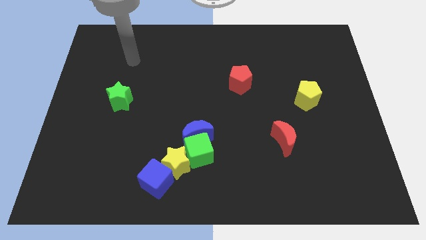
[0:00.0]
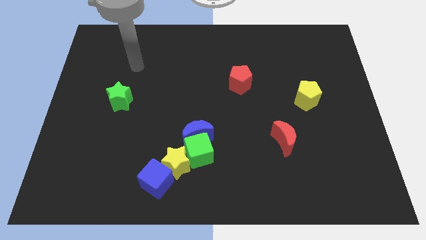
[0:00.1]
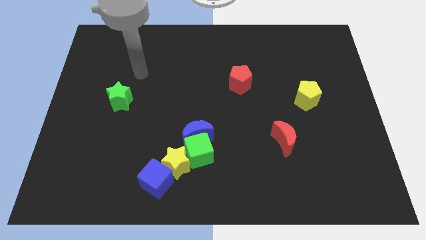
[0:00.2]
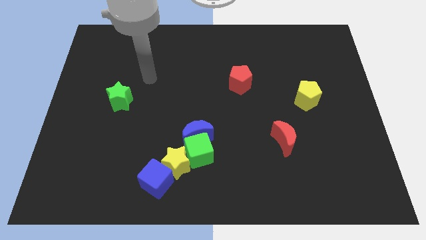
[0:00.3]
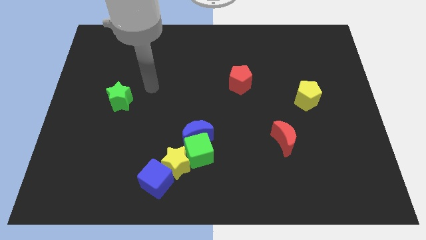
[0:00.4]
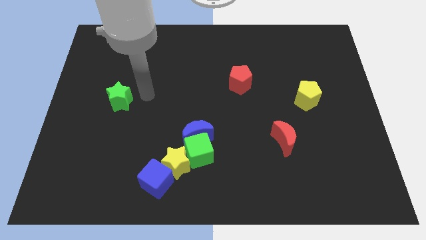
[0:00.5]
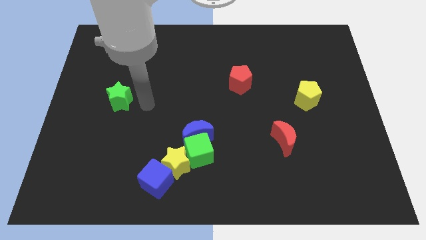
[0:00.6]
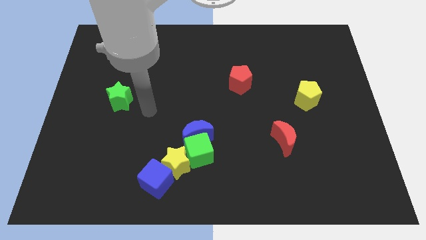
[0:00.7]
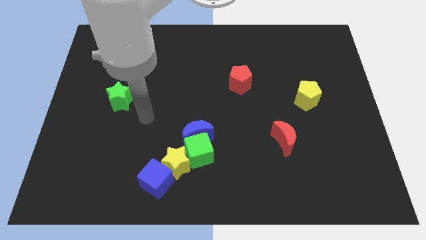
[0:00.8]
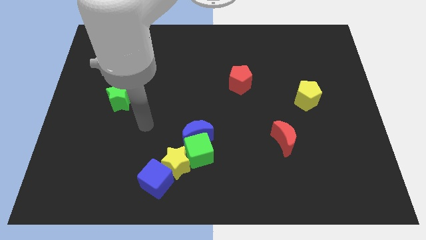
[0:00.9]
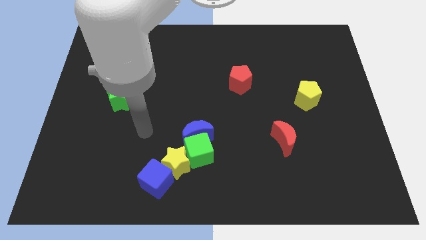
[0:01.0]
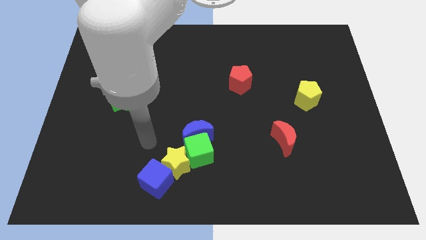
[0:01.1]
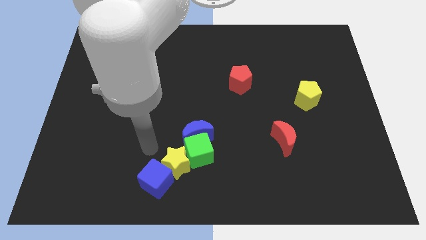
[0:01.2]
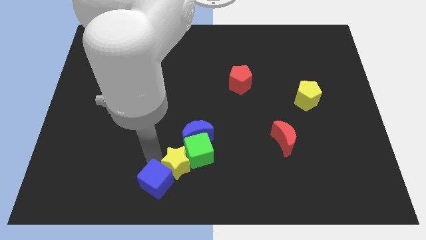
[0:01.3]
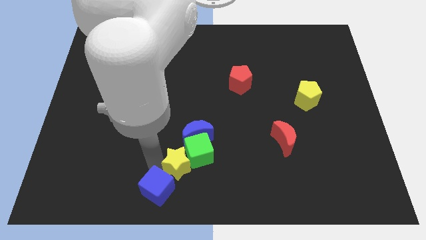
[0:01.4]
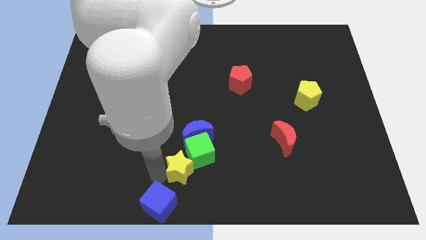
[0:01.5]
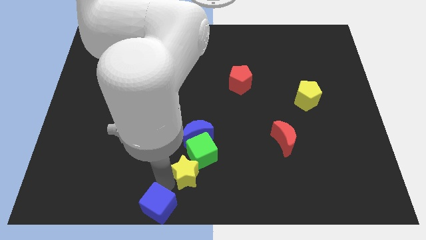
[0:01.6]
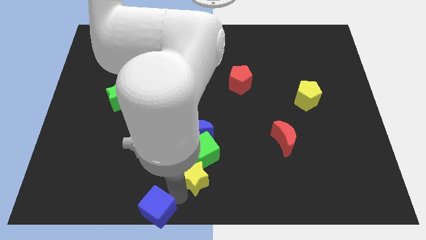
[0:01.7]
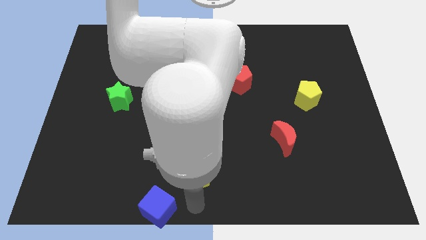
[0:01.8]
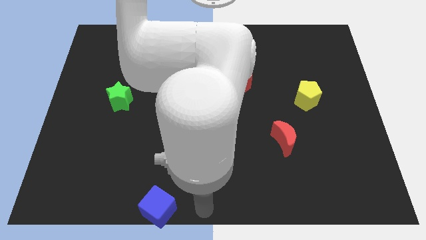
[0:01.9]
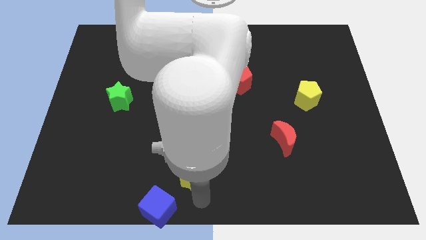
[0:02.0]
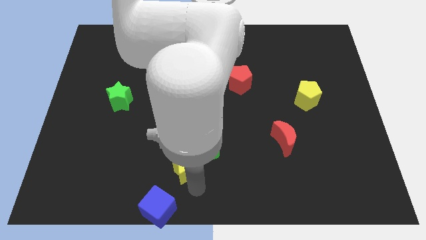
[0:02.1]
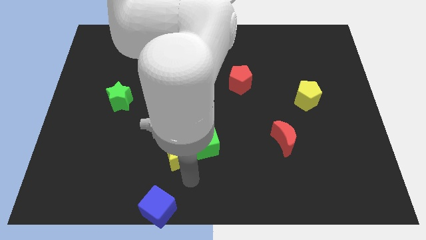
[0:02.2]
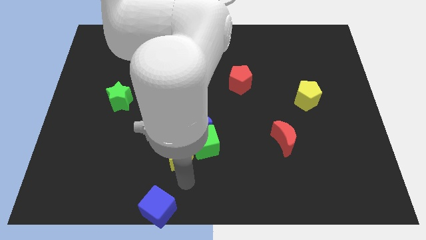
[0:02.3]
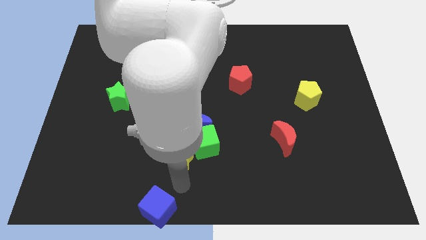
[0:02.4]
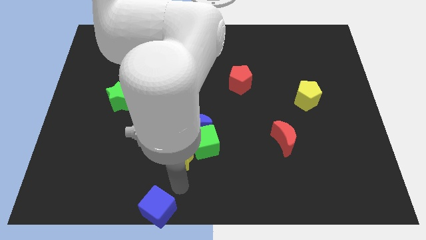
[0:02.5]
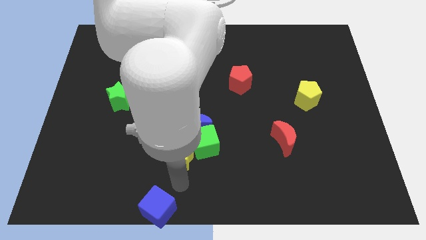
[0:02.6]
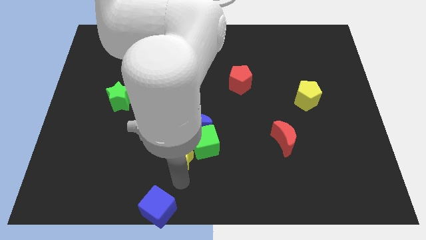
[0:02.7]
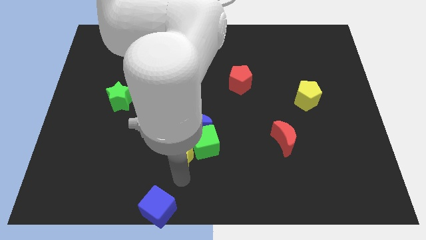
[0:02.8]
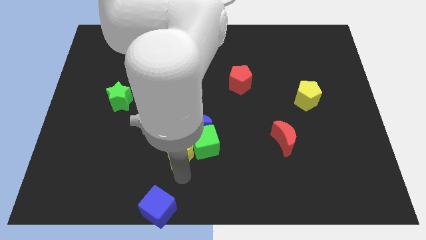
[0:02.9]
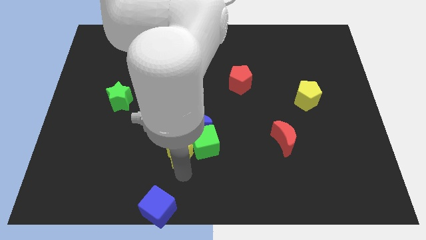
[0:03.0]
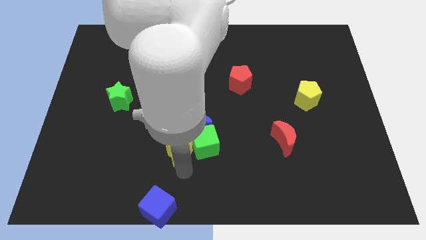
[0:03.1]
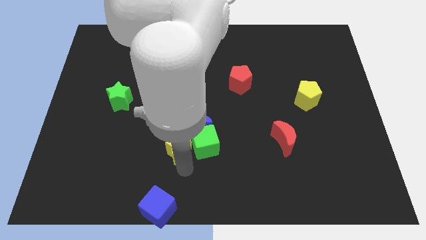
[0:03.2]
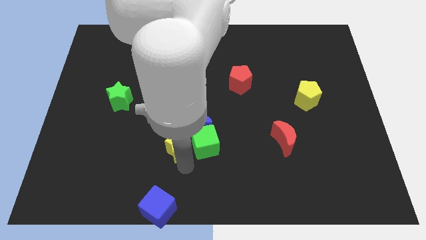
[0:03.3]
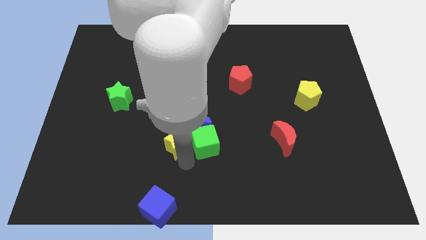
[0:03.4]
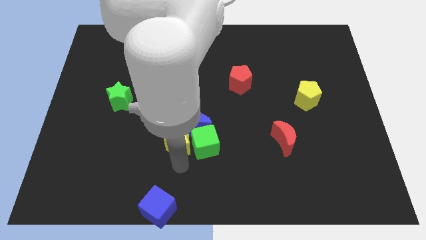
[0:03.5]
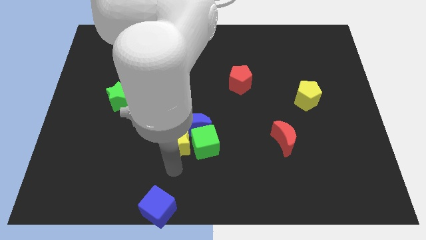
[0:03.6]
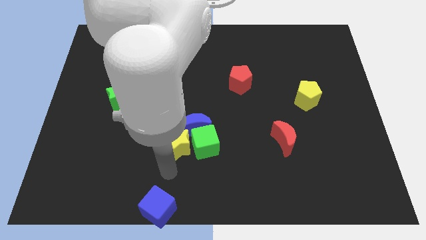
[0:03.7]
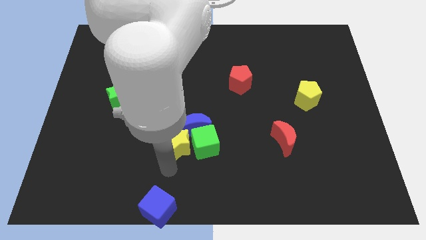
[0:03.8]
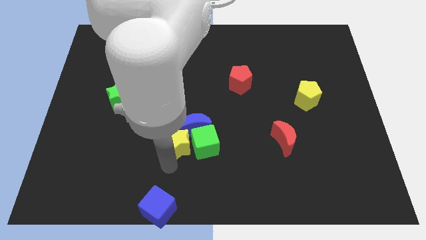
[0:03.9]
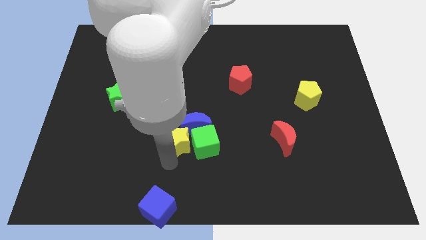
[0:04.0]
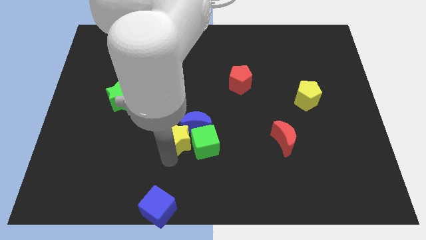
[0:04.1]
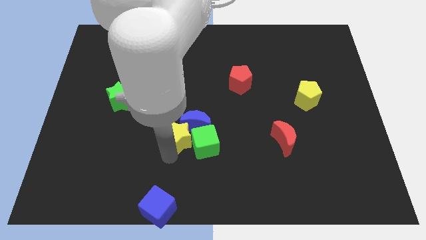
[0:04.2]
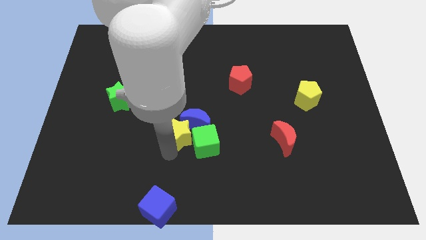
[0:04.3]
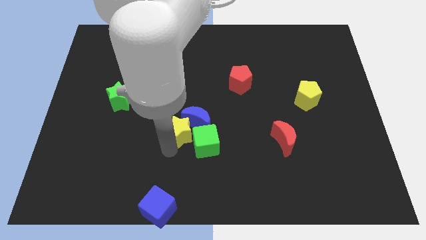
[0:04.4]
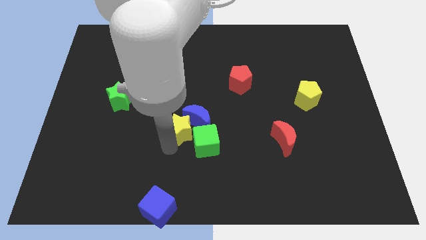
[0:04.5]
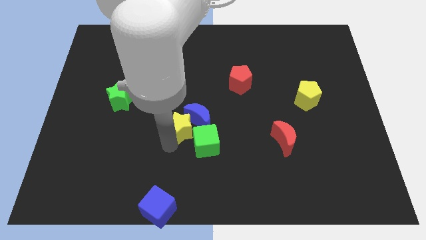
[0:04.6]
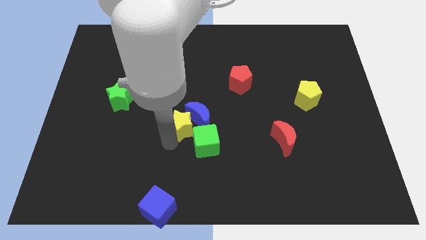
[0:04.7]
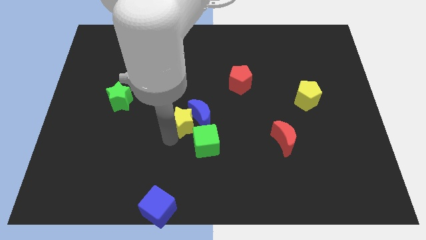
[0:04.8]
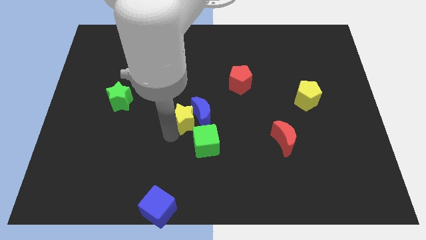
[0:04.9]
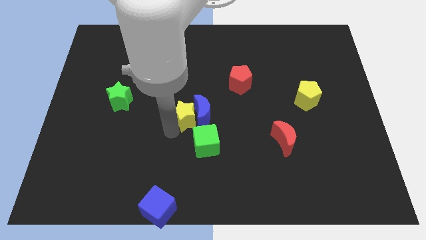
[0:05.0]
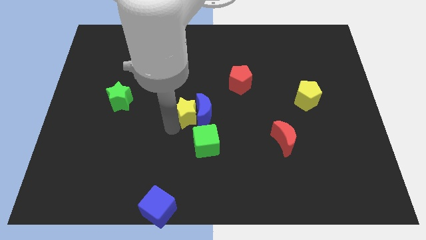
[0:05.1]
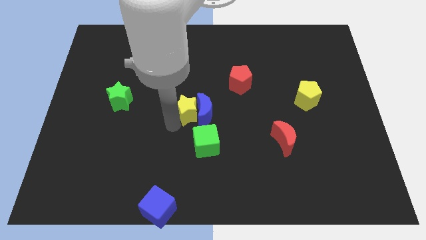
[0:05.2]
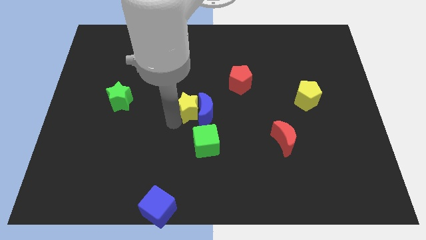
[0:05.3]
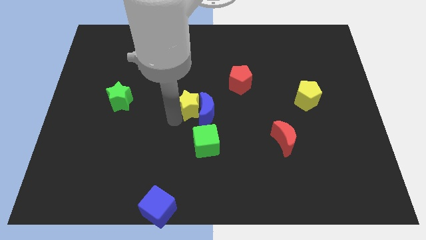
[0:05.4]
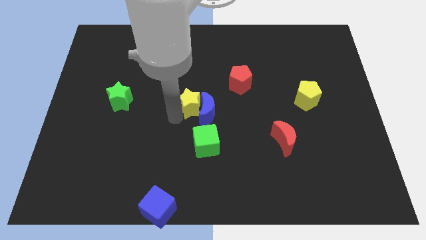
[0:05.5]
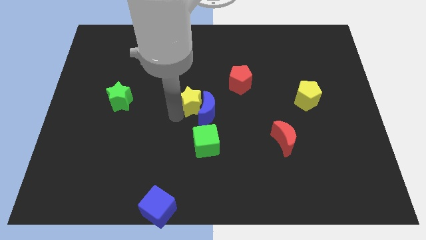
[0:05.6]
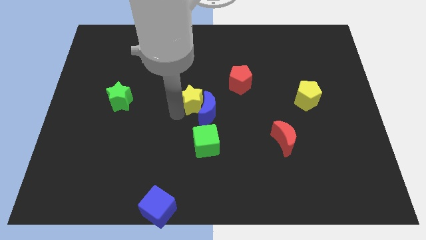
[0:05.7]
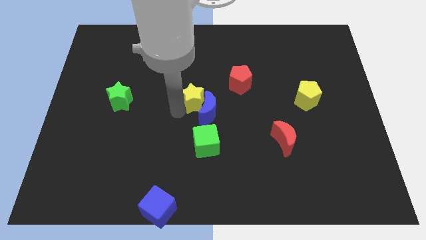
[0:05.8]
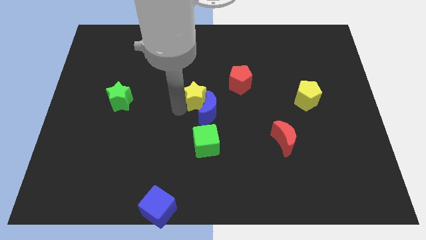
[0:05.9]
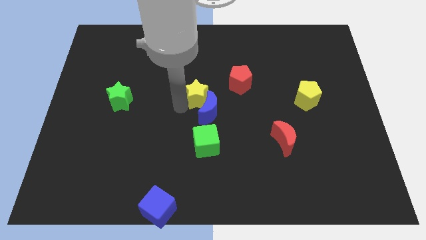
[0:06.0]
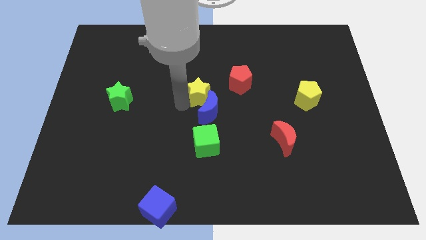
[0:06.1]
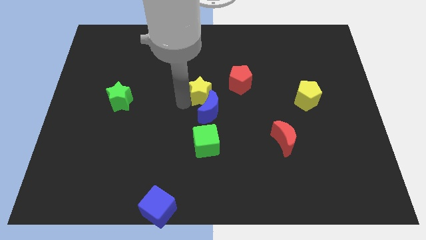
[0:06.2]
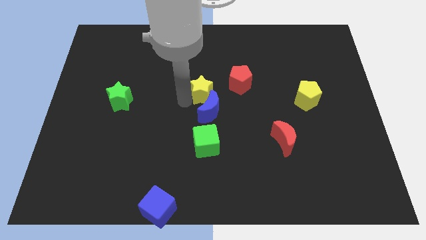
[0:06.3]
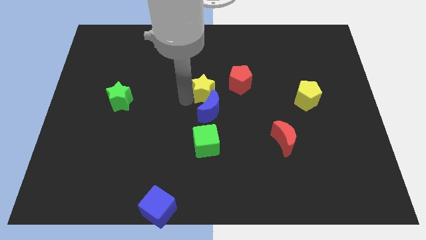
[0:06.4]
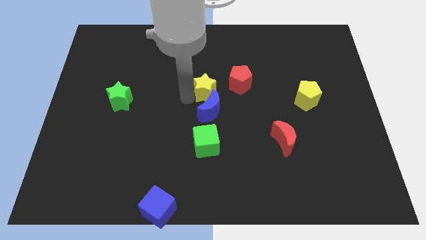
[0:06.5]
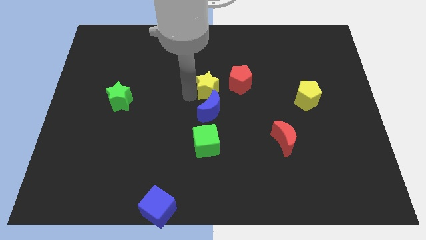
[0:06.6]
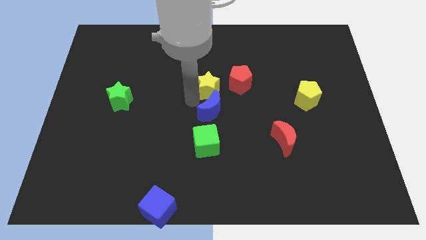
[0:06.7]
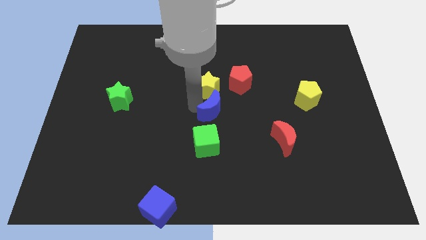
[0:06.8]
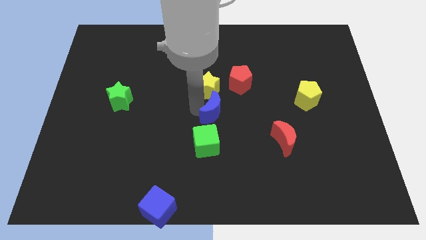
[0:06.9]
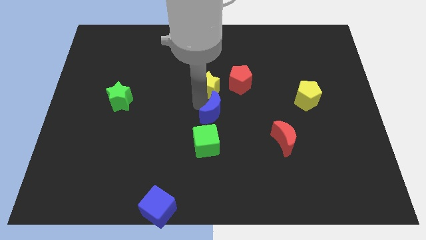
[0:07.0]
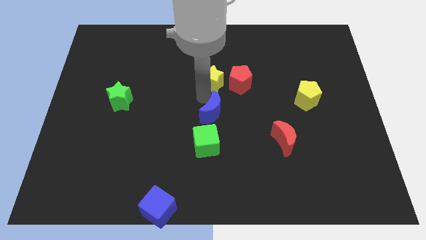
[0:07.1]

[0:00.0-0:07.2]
put the yellow star to the top left side of the red pentagon

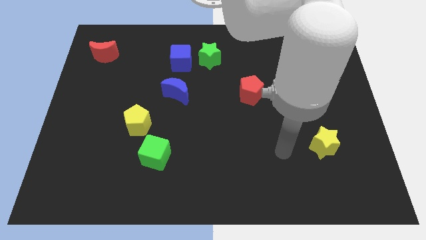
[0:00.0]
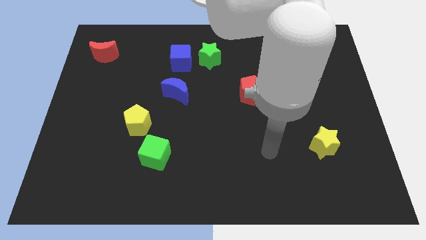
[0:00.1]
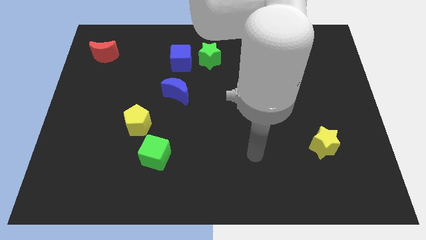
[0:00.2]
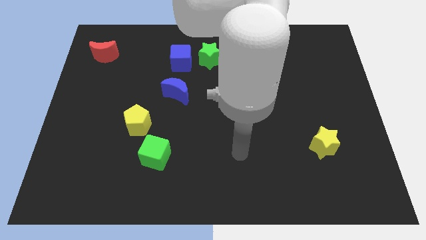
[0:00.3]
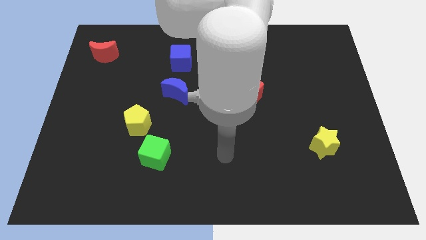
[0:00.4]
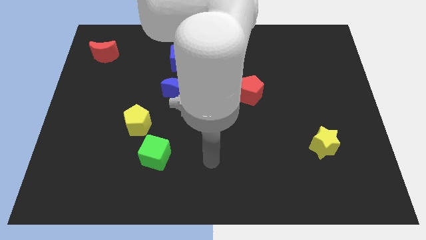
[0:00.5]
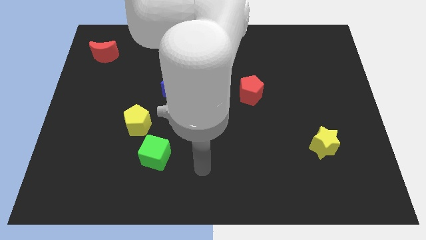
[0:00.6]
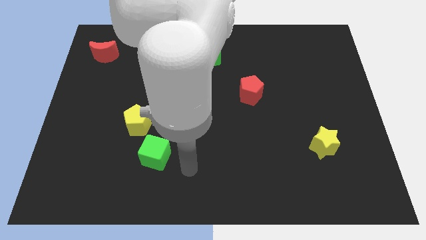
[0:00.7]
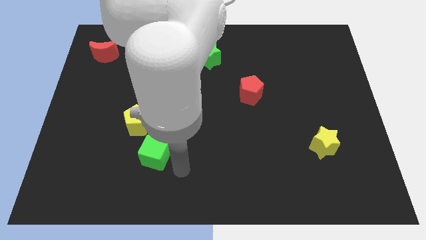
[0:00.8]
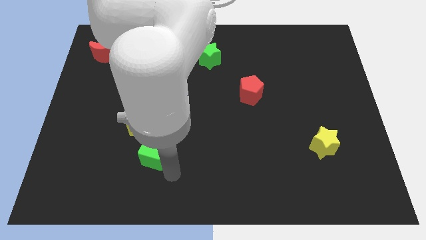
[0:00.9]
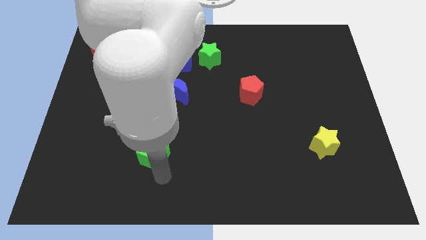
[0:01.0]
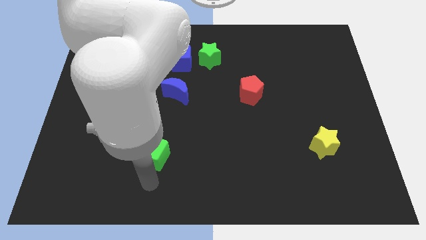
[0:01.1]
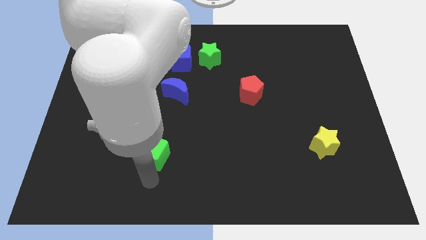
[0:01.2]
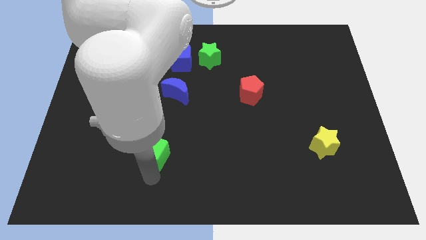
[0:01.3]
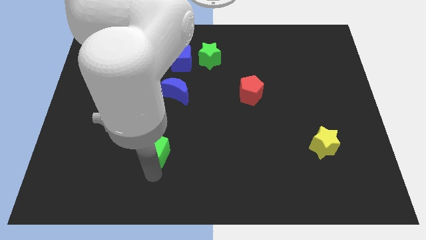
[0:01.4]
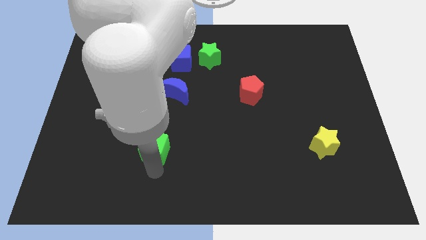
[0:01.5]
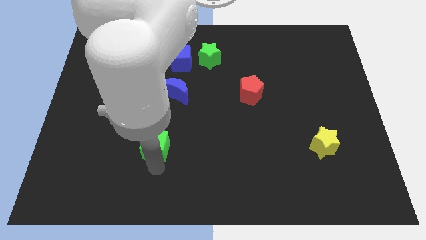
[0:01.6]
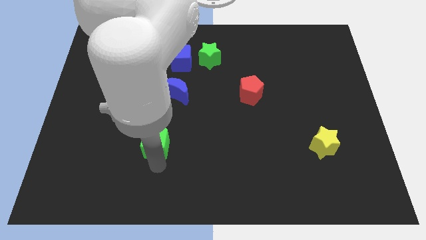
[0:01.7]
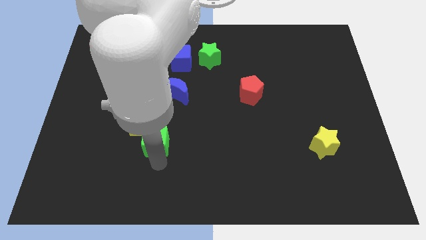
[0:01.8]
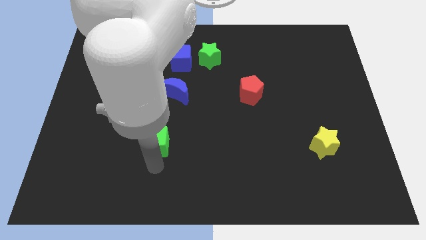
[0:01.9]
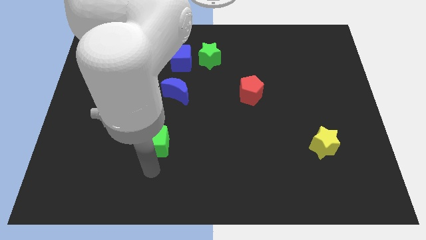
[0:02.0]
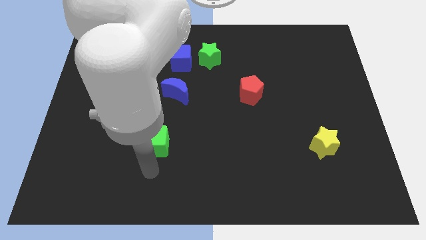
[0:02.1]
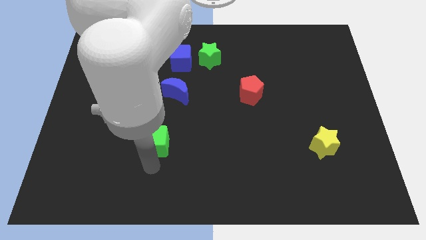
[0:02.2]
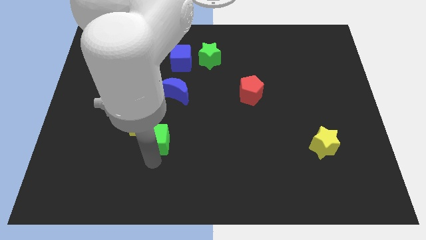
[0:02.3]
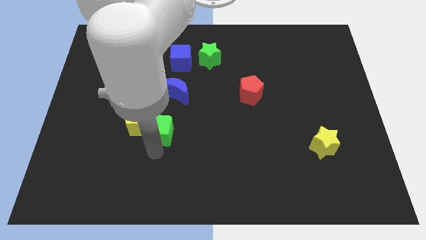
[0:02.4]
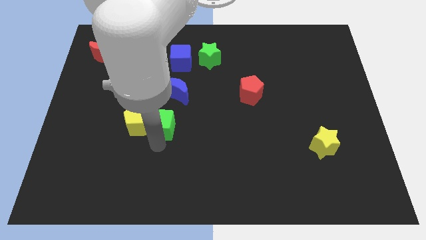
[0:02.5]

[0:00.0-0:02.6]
put the green cube diagonally up and to the right of the yellow pentagon
